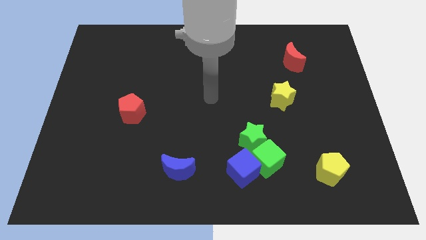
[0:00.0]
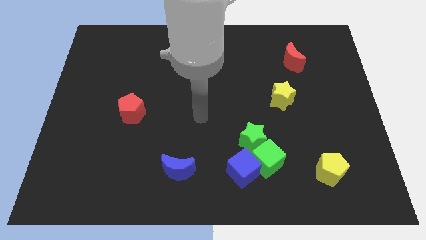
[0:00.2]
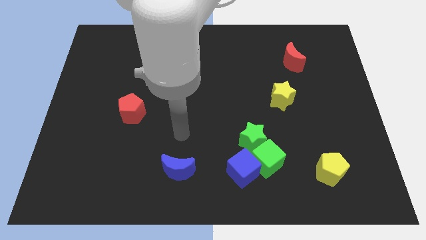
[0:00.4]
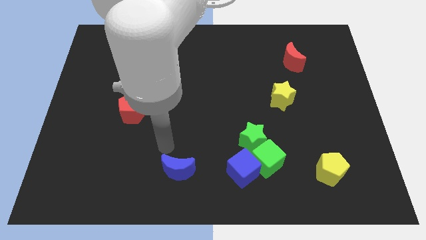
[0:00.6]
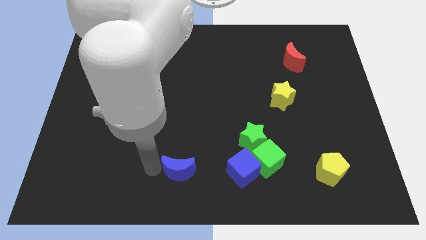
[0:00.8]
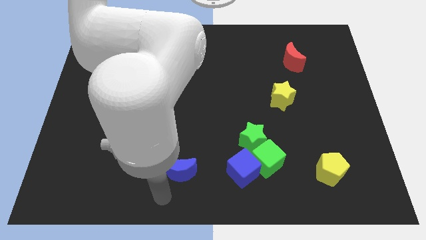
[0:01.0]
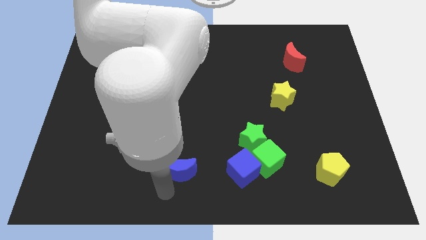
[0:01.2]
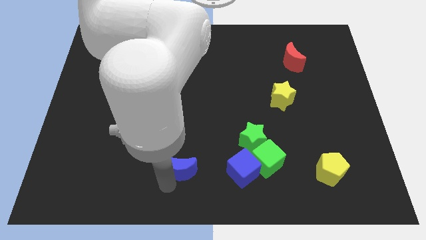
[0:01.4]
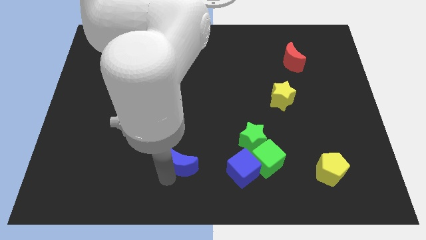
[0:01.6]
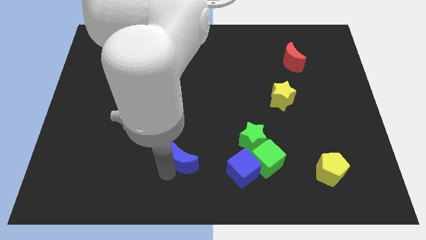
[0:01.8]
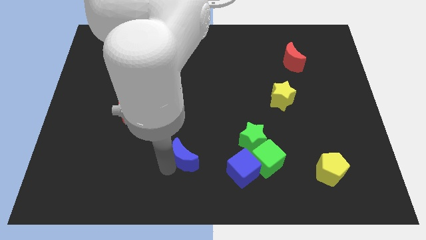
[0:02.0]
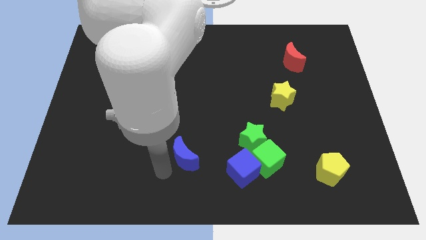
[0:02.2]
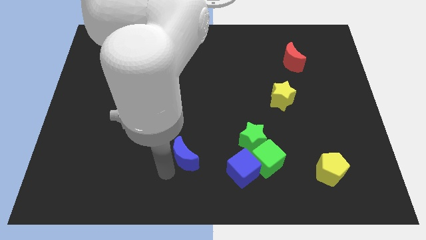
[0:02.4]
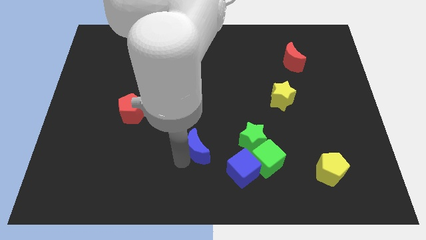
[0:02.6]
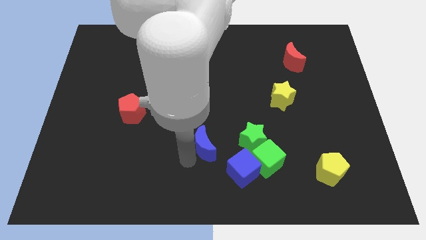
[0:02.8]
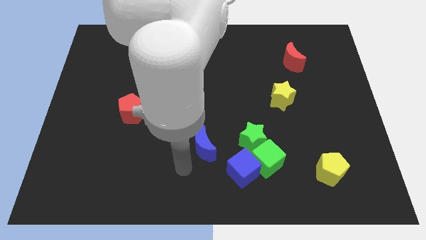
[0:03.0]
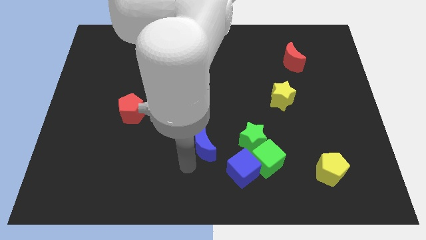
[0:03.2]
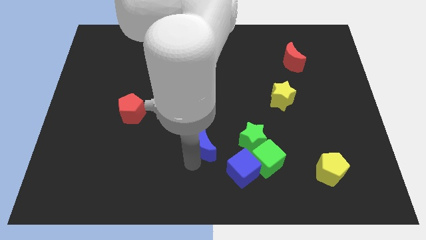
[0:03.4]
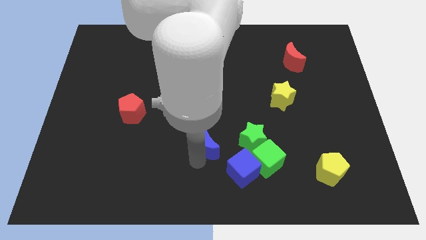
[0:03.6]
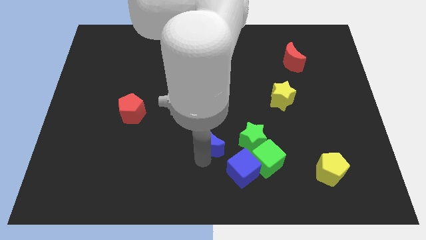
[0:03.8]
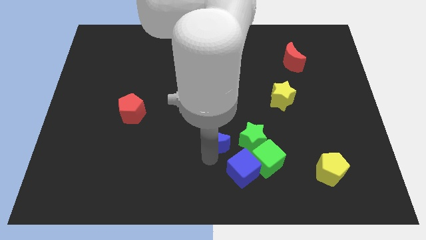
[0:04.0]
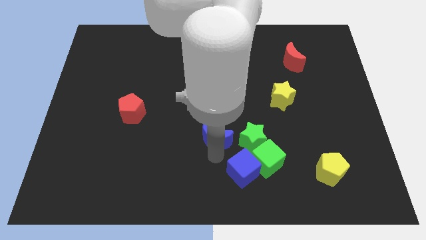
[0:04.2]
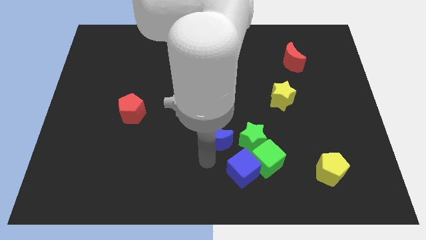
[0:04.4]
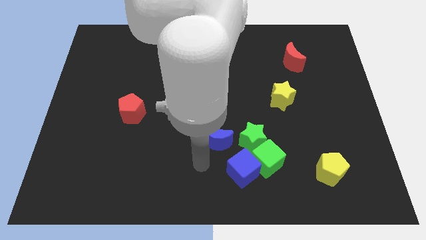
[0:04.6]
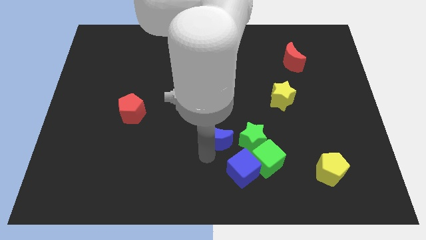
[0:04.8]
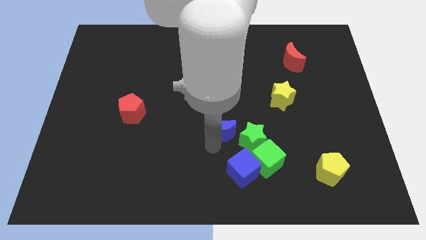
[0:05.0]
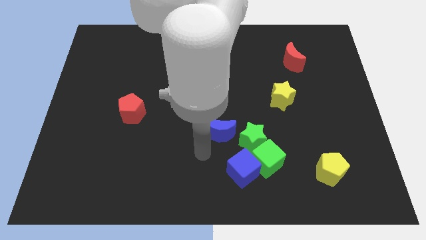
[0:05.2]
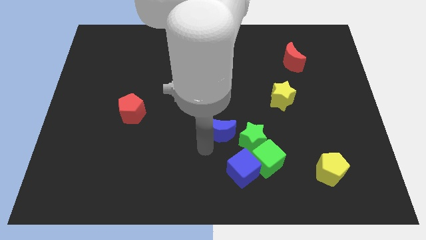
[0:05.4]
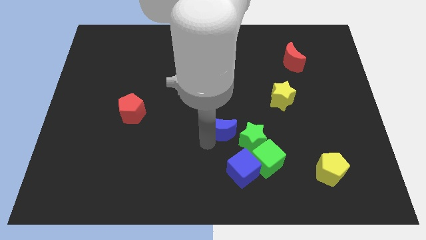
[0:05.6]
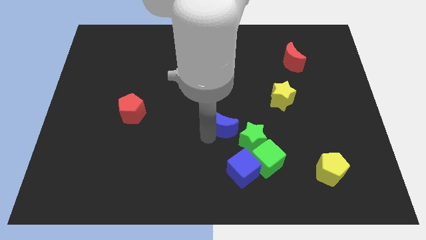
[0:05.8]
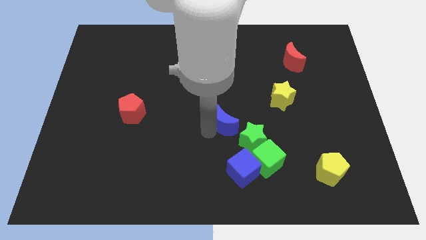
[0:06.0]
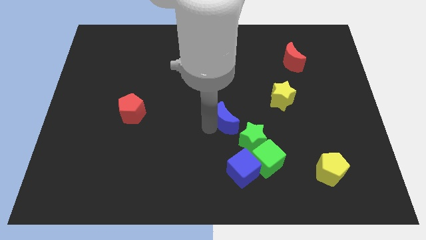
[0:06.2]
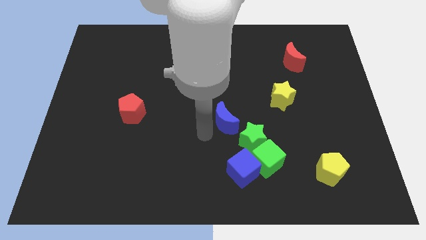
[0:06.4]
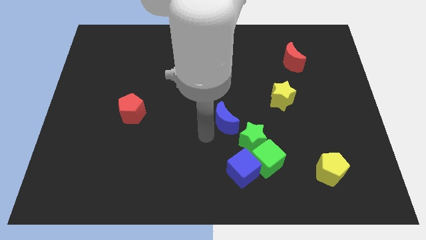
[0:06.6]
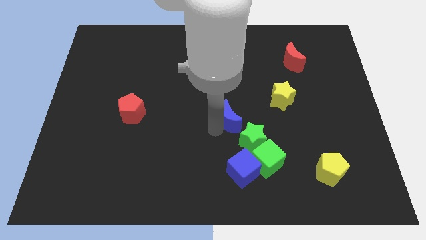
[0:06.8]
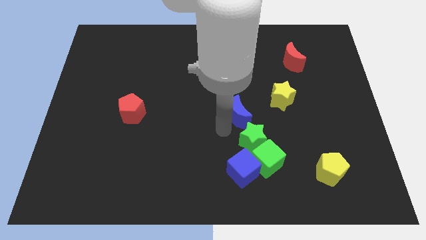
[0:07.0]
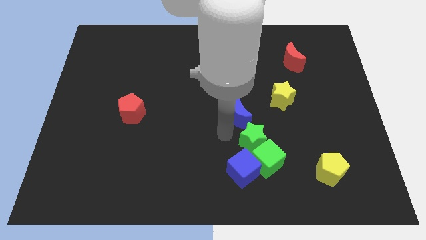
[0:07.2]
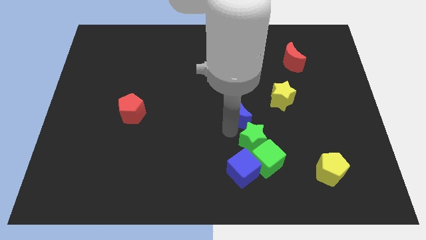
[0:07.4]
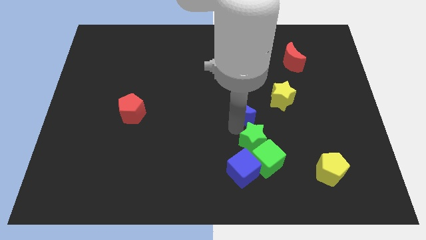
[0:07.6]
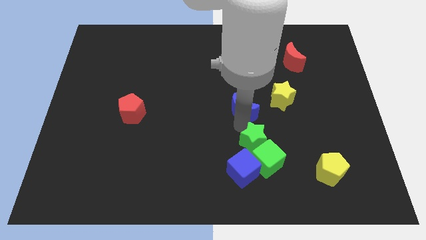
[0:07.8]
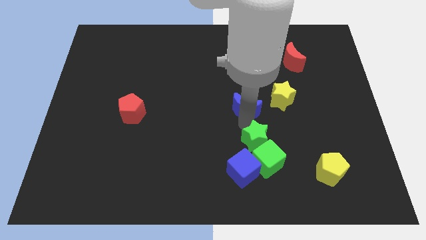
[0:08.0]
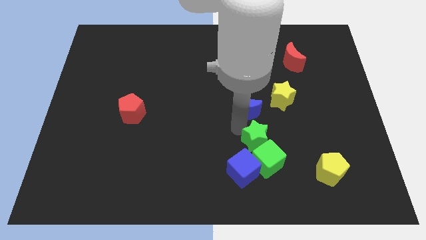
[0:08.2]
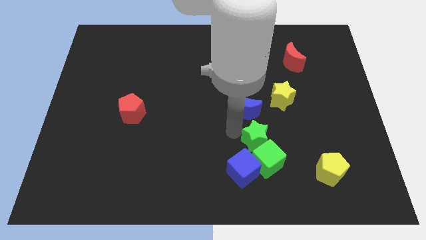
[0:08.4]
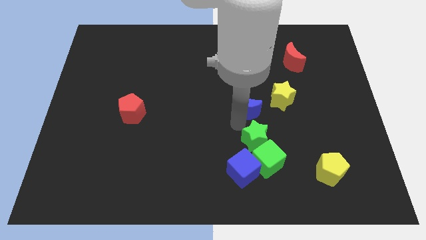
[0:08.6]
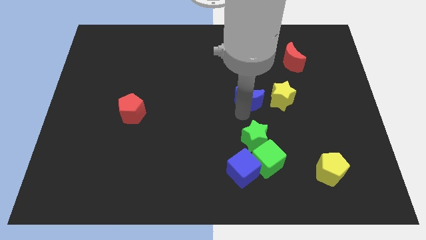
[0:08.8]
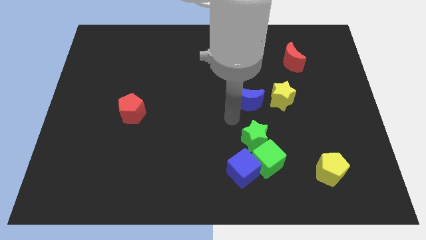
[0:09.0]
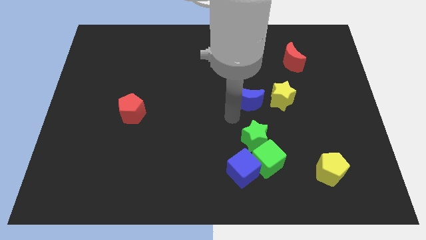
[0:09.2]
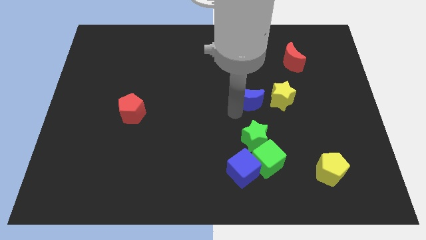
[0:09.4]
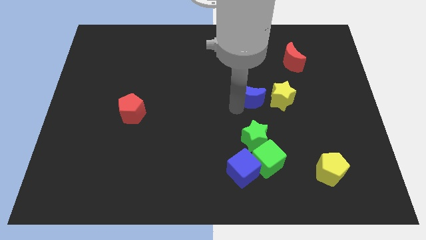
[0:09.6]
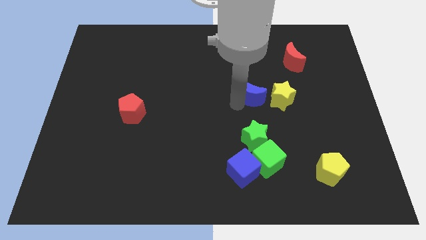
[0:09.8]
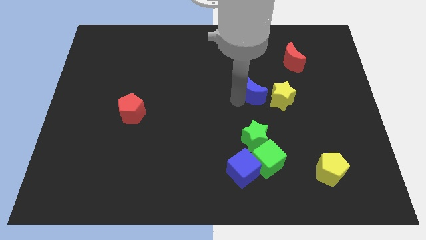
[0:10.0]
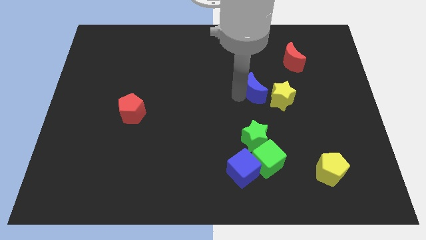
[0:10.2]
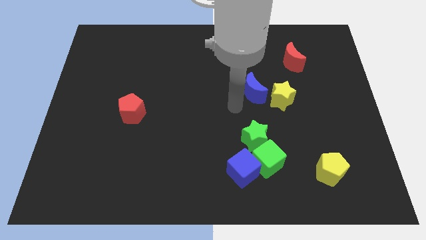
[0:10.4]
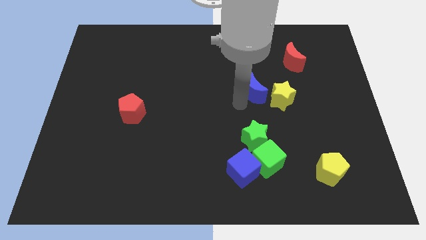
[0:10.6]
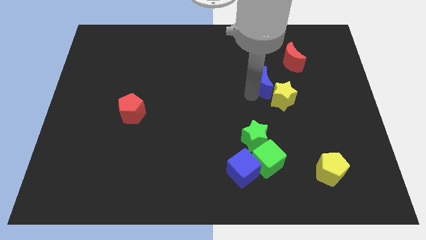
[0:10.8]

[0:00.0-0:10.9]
slide the blue moon to the bottom left of the red moon

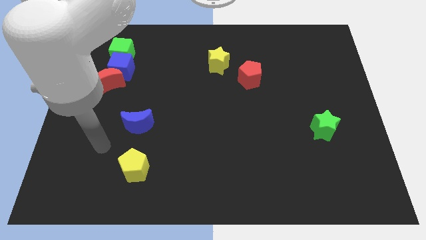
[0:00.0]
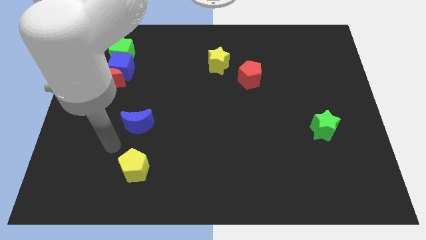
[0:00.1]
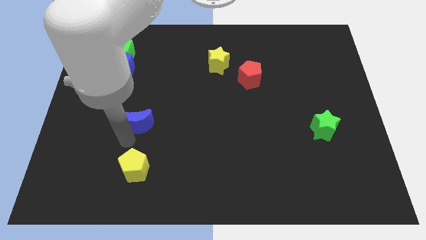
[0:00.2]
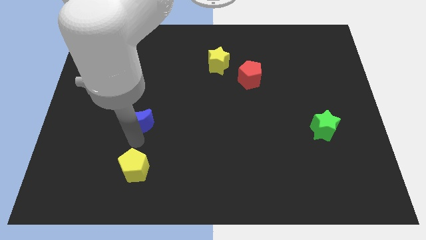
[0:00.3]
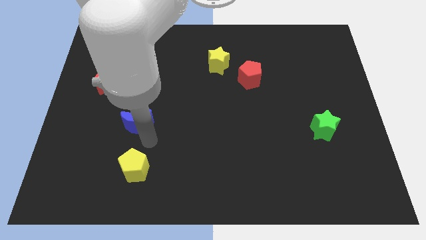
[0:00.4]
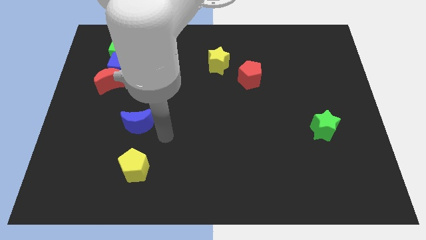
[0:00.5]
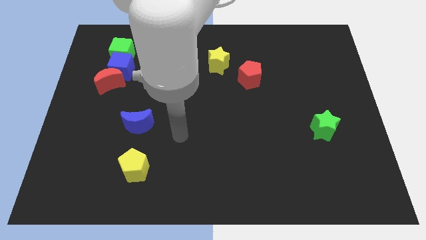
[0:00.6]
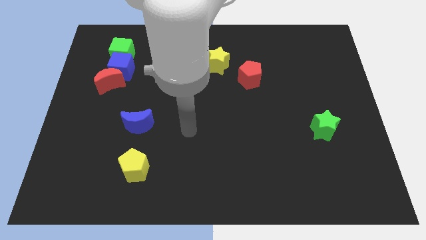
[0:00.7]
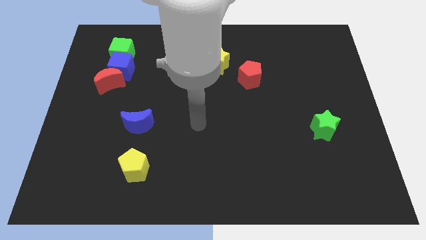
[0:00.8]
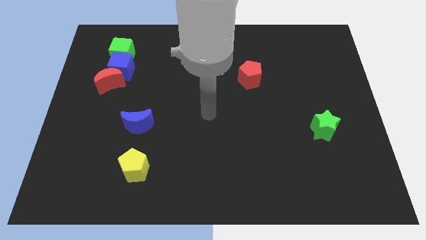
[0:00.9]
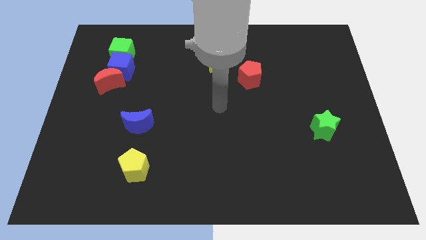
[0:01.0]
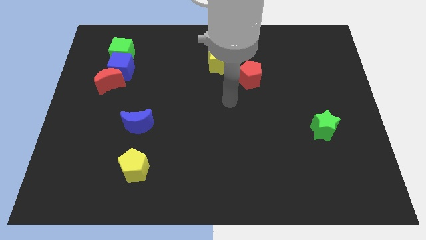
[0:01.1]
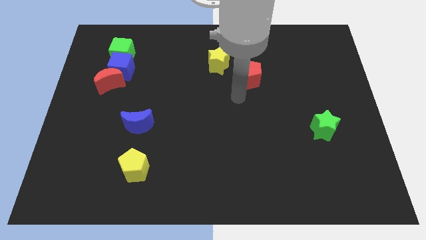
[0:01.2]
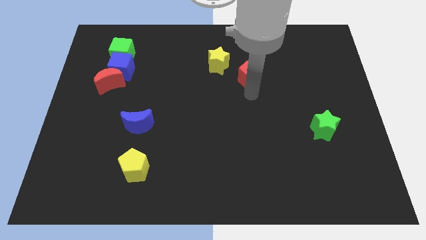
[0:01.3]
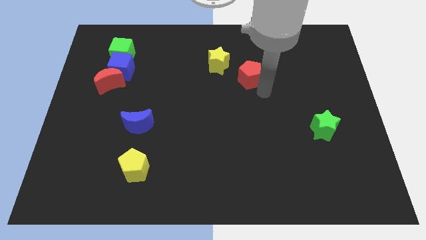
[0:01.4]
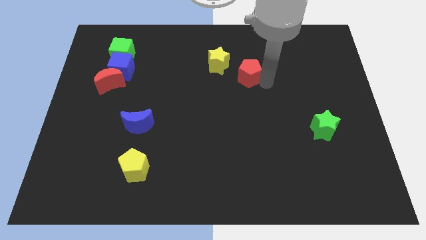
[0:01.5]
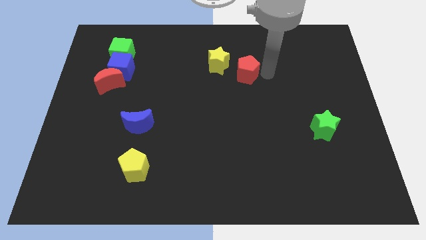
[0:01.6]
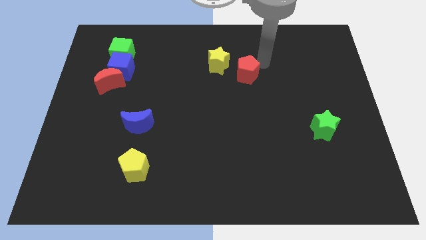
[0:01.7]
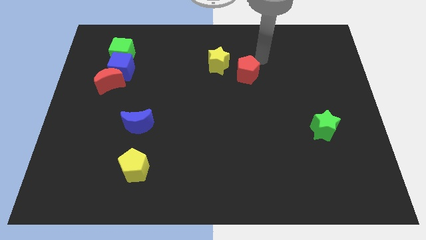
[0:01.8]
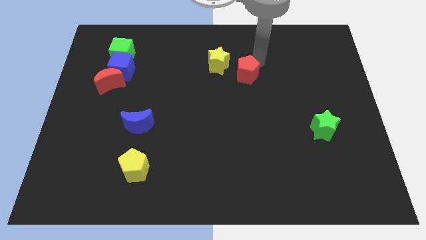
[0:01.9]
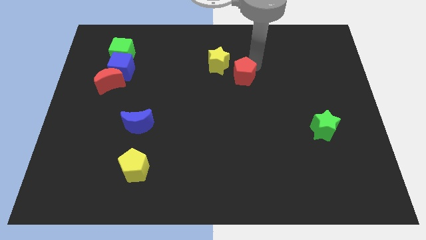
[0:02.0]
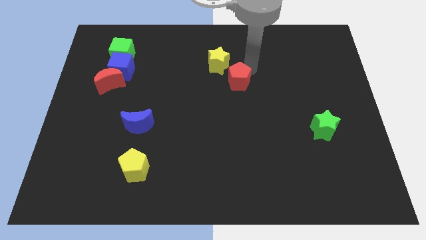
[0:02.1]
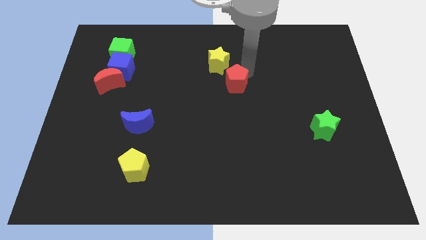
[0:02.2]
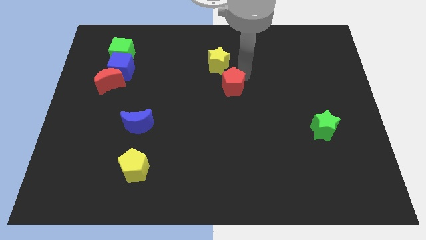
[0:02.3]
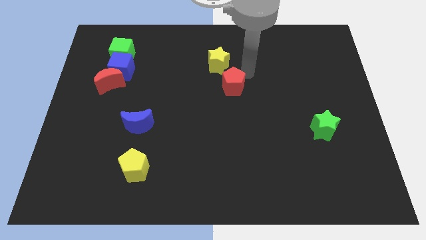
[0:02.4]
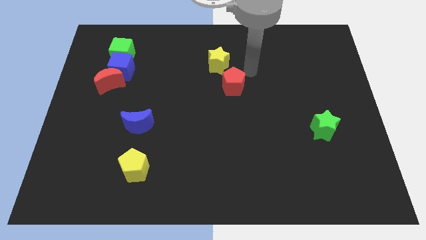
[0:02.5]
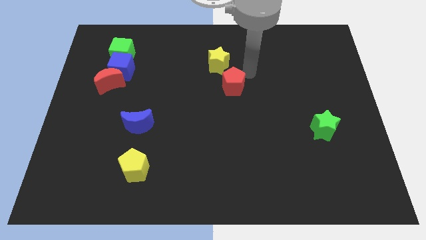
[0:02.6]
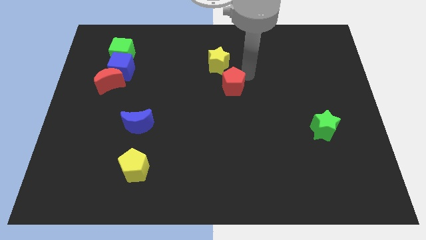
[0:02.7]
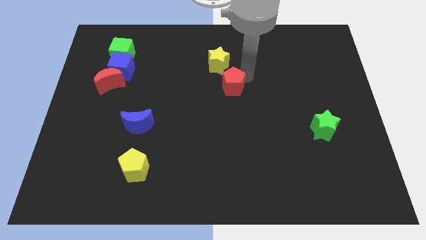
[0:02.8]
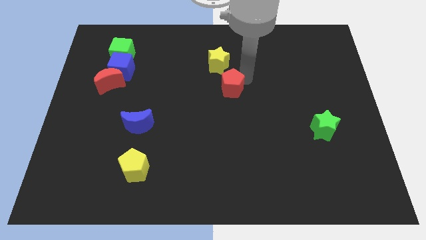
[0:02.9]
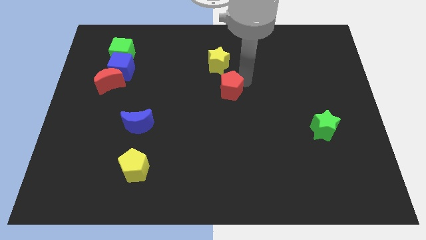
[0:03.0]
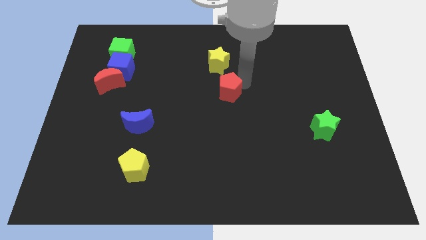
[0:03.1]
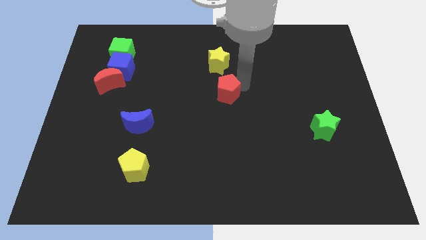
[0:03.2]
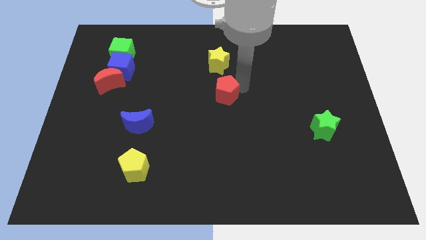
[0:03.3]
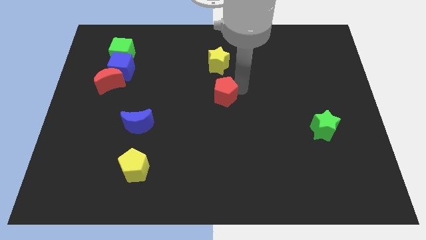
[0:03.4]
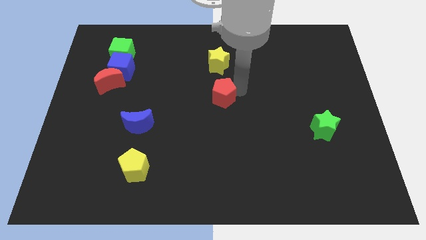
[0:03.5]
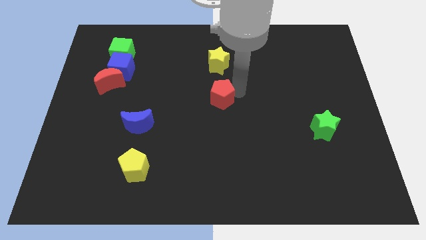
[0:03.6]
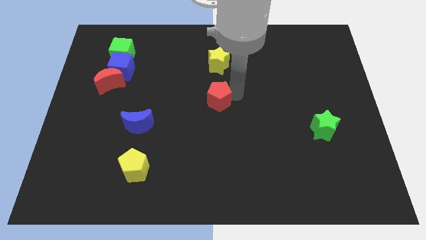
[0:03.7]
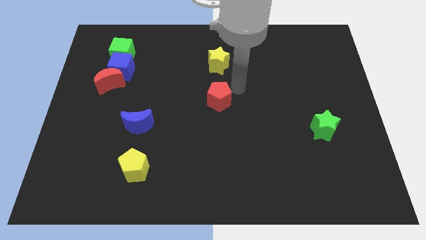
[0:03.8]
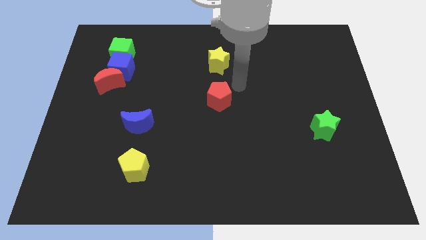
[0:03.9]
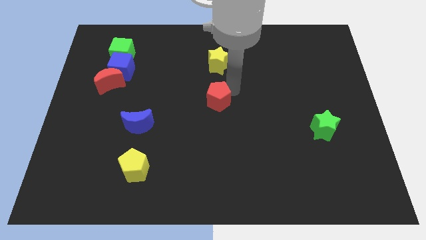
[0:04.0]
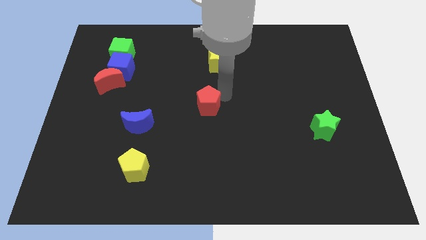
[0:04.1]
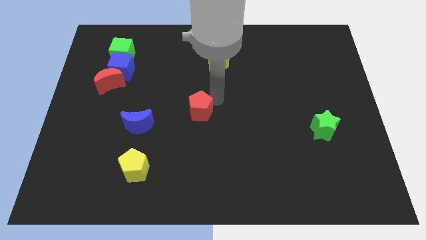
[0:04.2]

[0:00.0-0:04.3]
move the red pentagon just right of the blue moon
